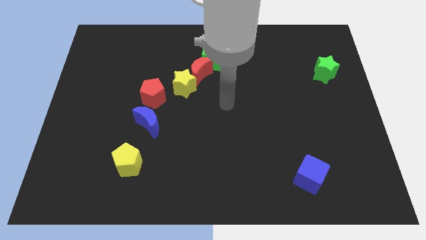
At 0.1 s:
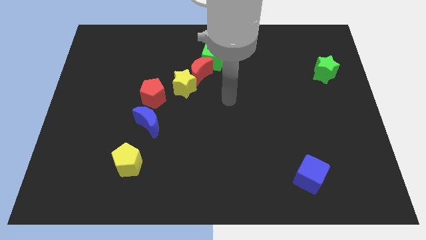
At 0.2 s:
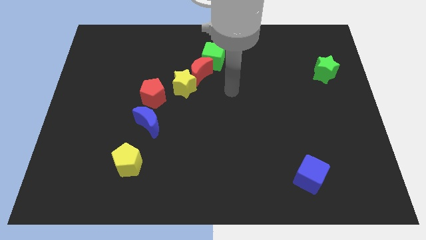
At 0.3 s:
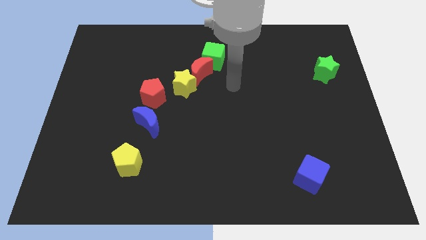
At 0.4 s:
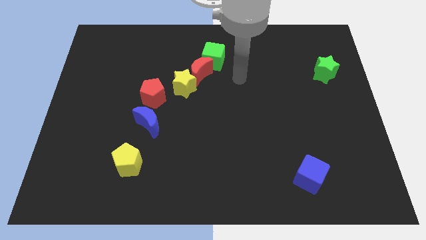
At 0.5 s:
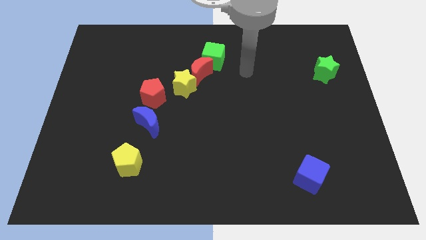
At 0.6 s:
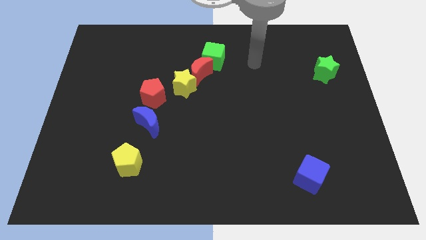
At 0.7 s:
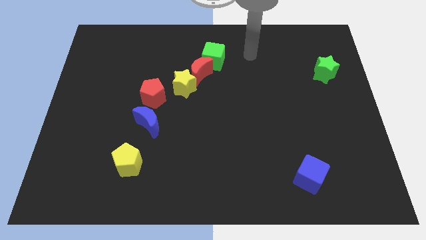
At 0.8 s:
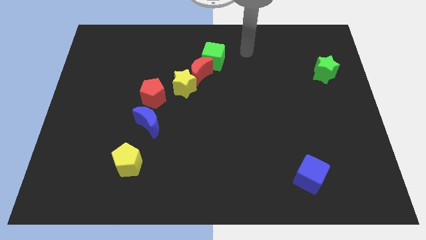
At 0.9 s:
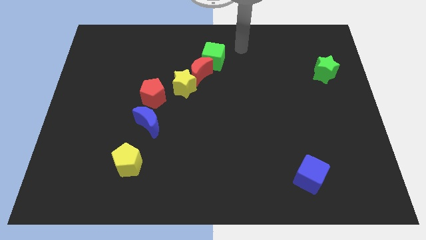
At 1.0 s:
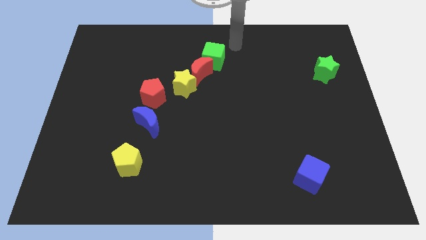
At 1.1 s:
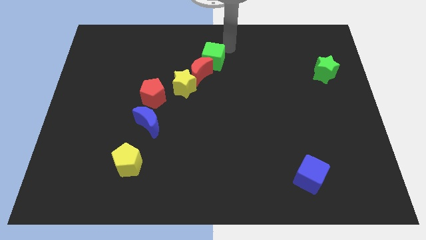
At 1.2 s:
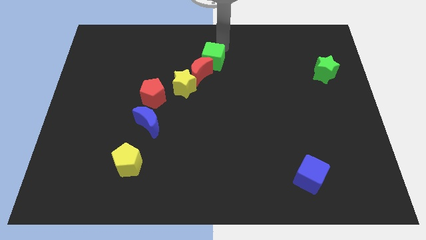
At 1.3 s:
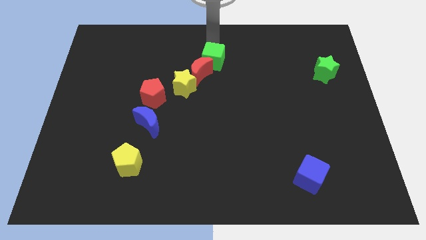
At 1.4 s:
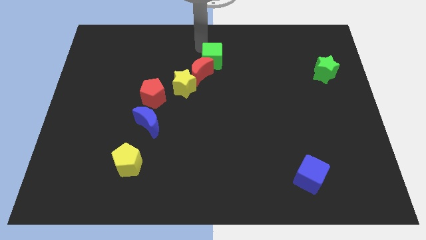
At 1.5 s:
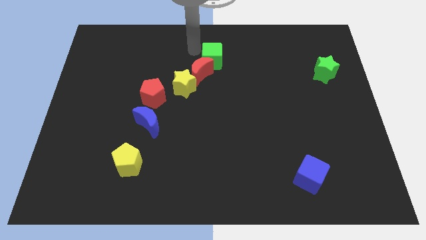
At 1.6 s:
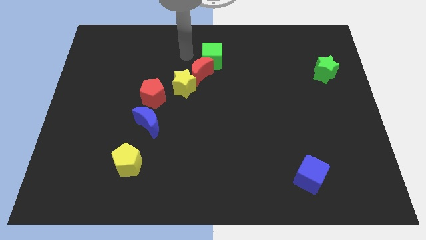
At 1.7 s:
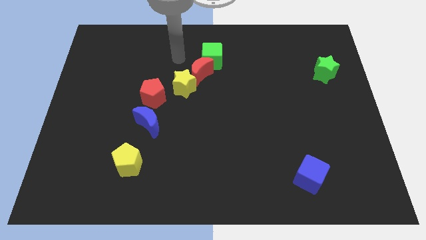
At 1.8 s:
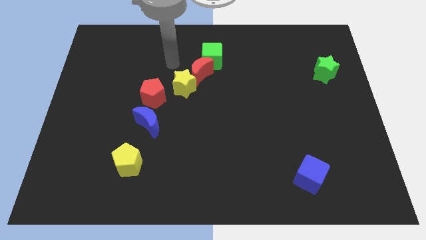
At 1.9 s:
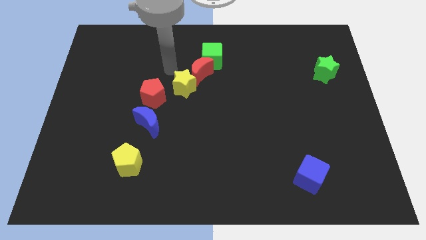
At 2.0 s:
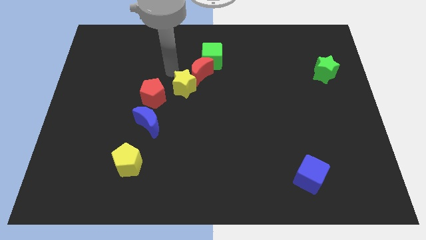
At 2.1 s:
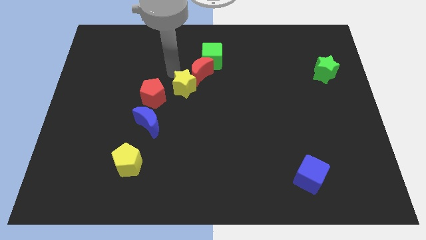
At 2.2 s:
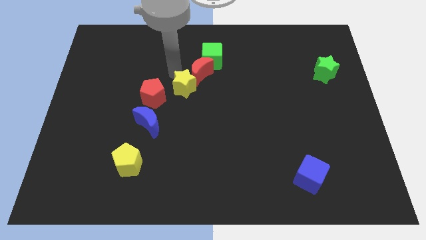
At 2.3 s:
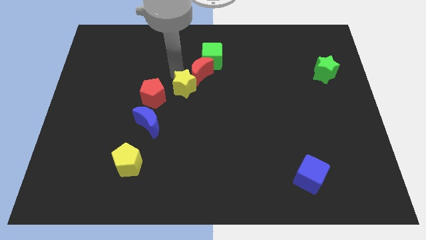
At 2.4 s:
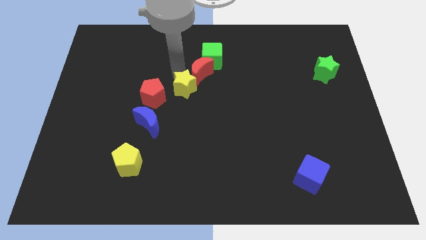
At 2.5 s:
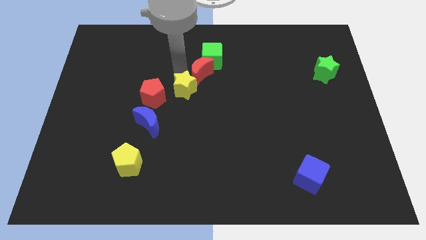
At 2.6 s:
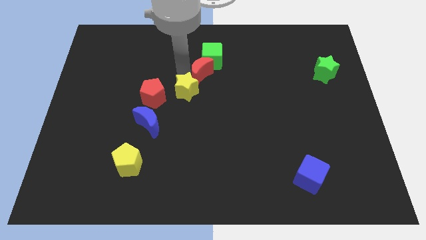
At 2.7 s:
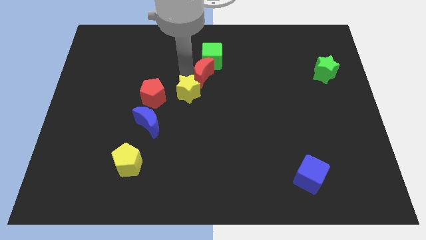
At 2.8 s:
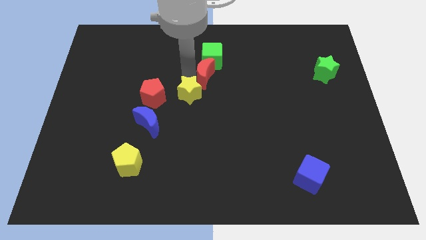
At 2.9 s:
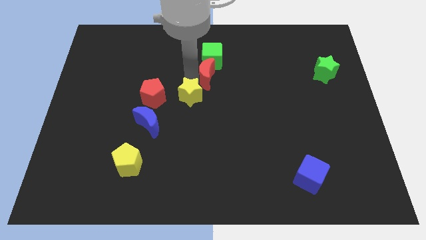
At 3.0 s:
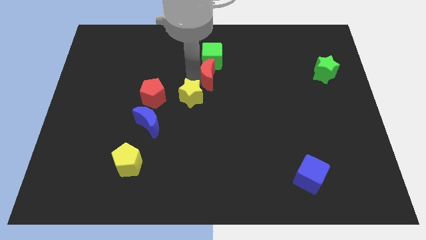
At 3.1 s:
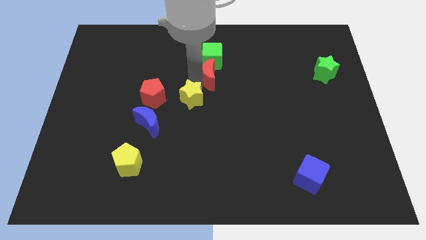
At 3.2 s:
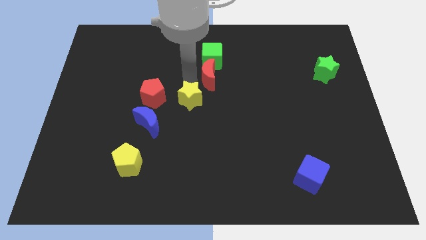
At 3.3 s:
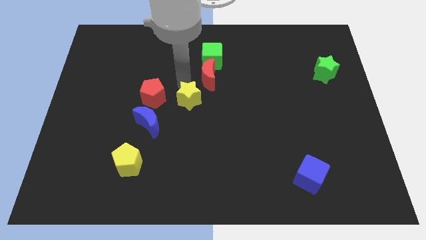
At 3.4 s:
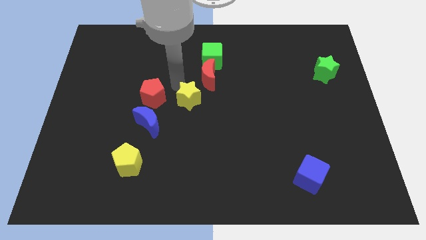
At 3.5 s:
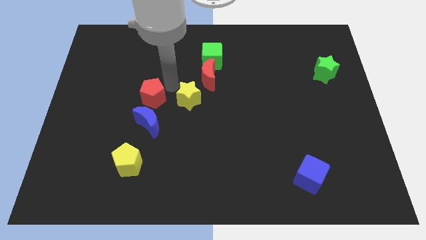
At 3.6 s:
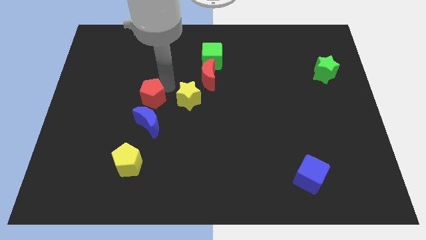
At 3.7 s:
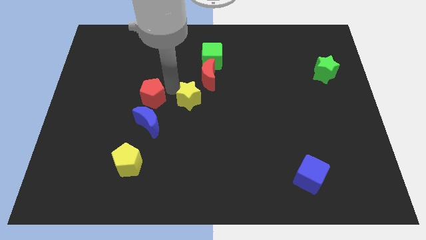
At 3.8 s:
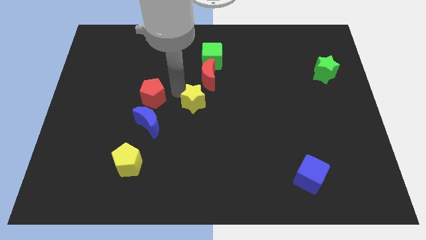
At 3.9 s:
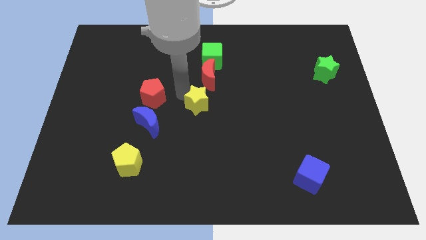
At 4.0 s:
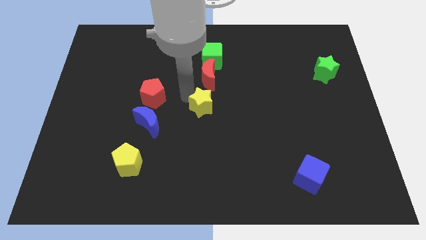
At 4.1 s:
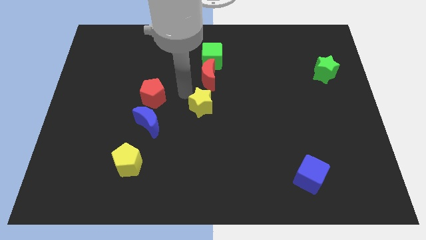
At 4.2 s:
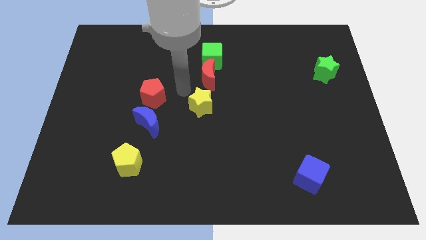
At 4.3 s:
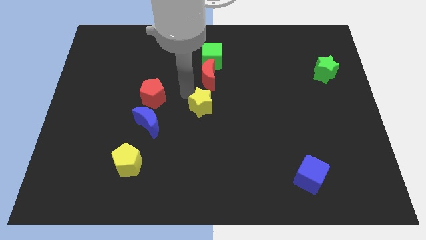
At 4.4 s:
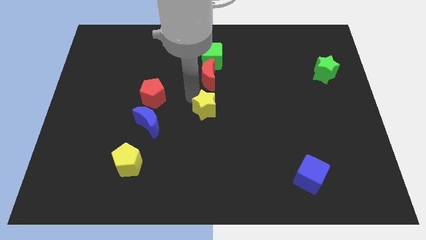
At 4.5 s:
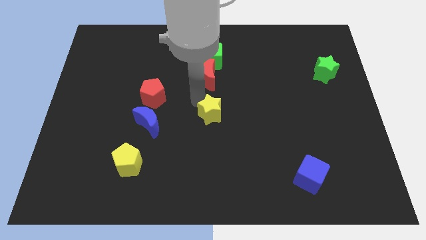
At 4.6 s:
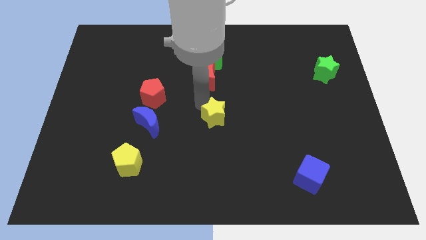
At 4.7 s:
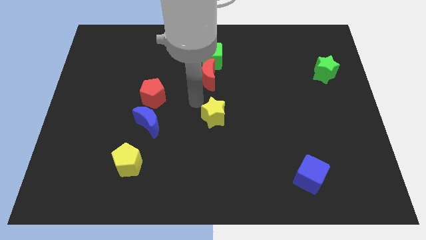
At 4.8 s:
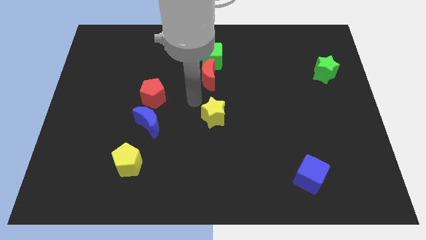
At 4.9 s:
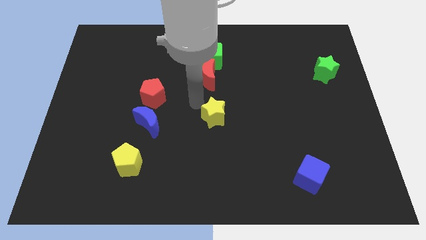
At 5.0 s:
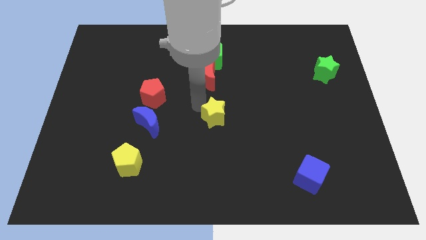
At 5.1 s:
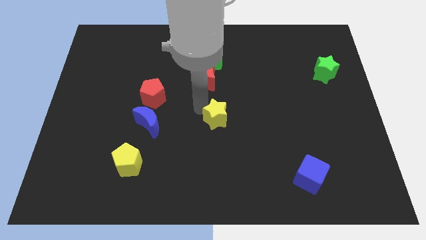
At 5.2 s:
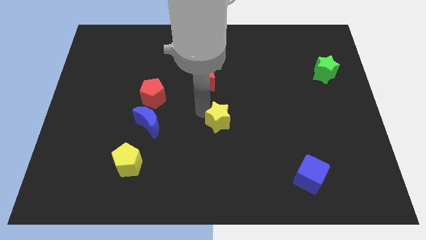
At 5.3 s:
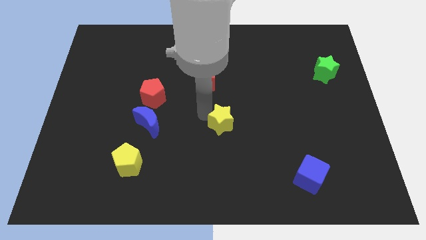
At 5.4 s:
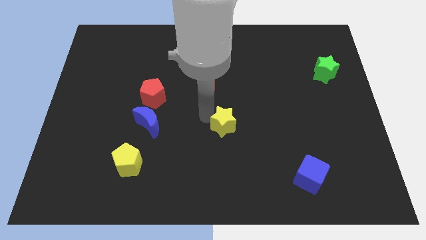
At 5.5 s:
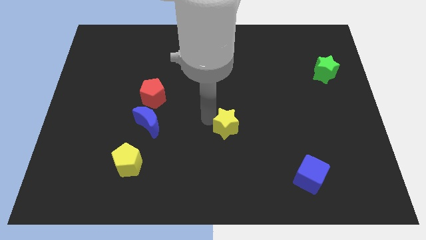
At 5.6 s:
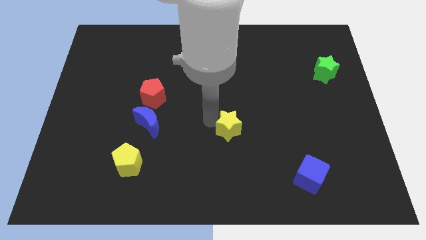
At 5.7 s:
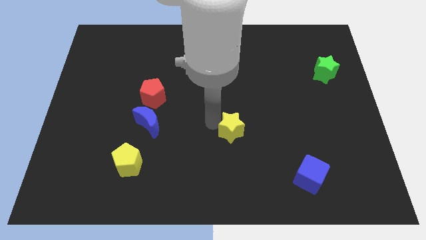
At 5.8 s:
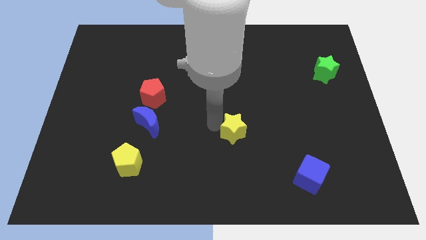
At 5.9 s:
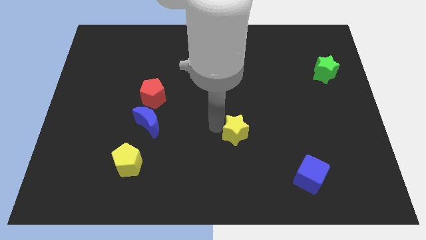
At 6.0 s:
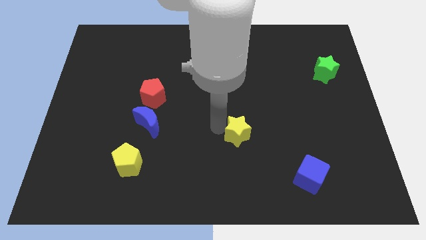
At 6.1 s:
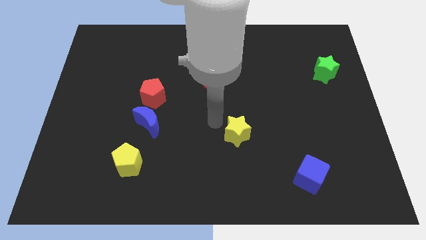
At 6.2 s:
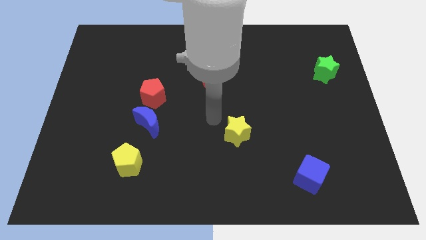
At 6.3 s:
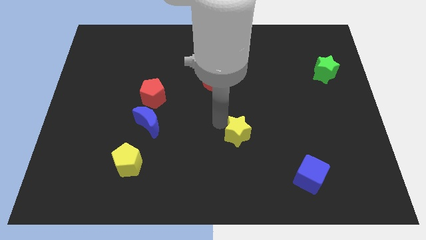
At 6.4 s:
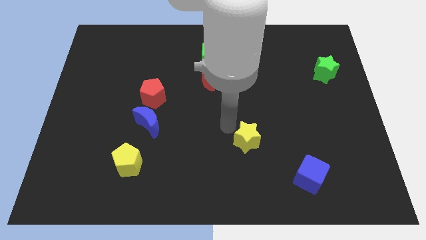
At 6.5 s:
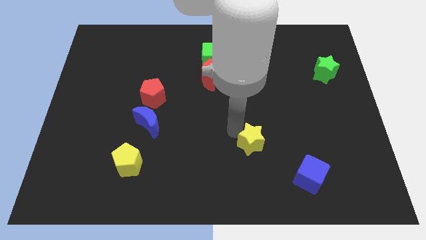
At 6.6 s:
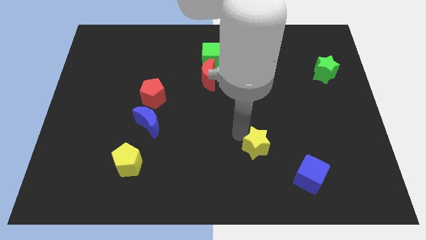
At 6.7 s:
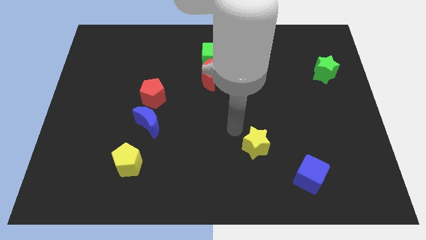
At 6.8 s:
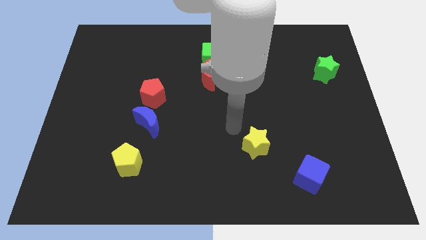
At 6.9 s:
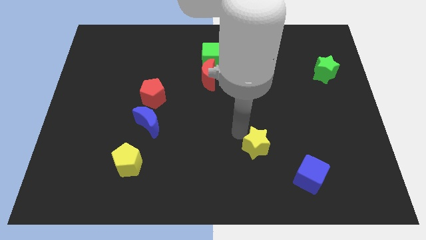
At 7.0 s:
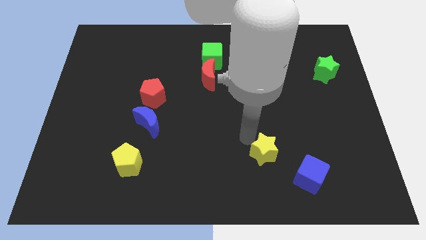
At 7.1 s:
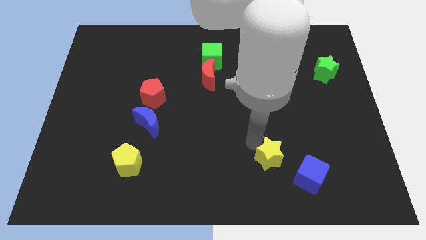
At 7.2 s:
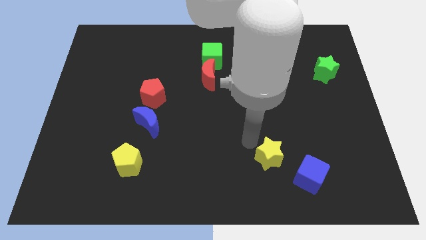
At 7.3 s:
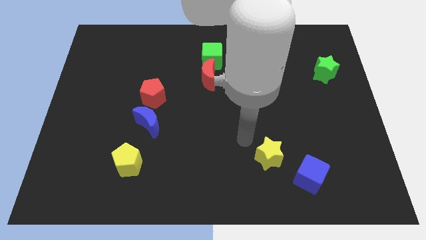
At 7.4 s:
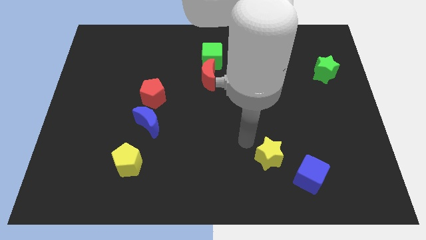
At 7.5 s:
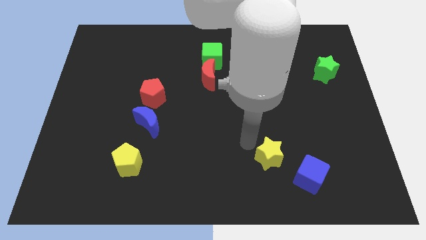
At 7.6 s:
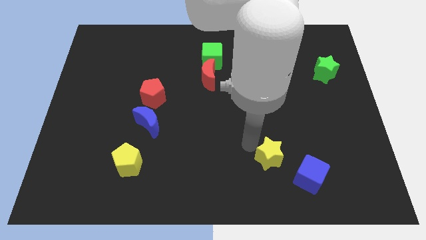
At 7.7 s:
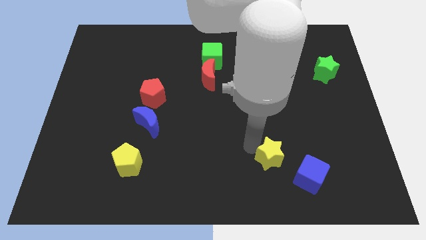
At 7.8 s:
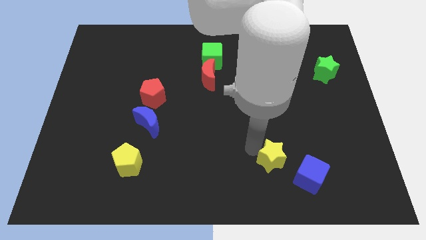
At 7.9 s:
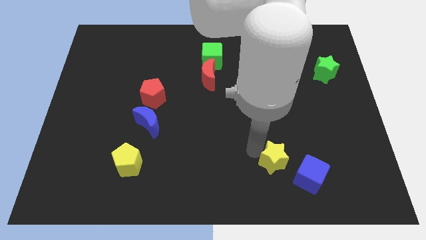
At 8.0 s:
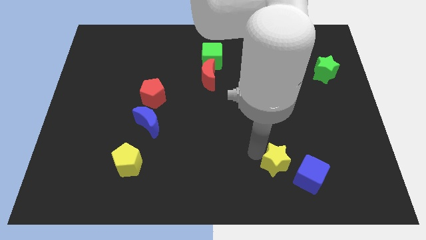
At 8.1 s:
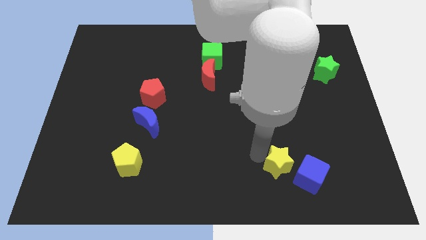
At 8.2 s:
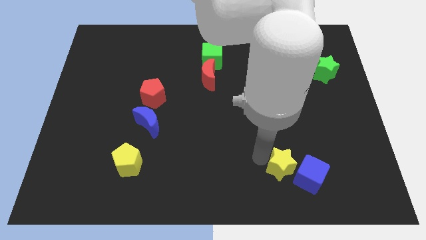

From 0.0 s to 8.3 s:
push the yellow star to the blue cube
